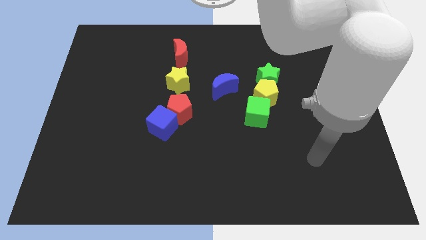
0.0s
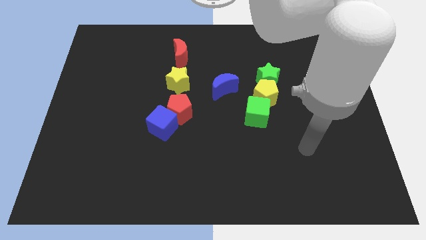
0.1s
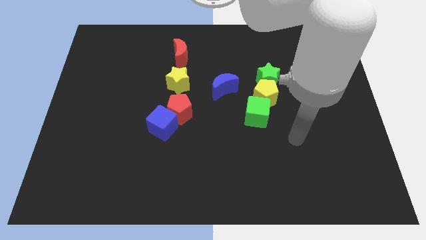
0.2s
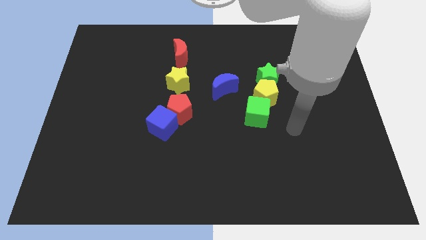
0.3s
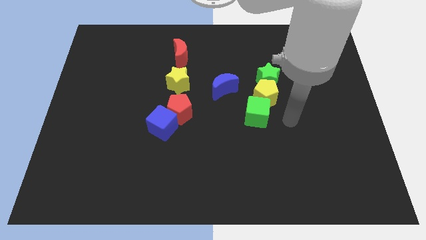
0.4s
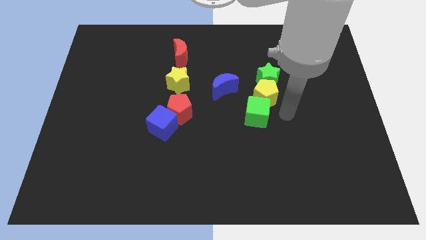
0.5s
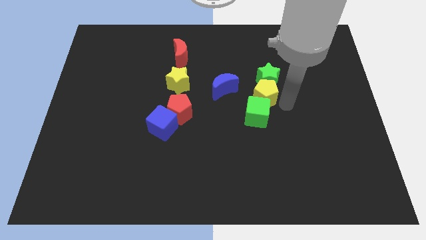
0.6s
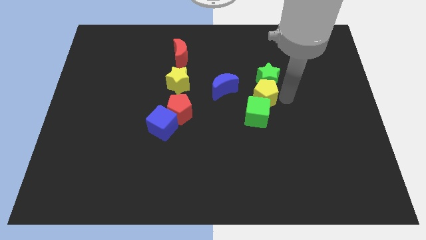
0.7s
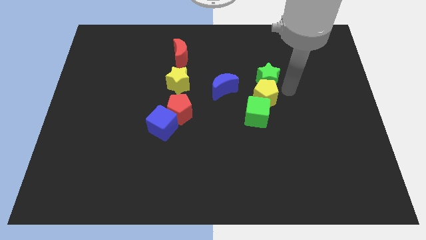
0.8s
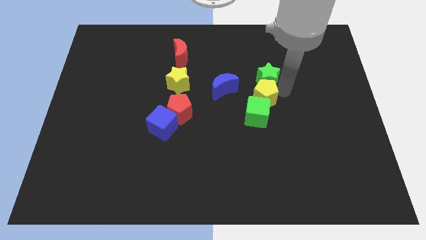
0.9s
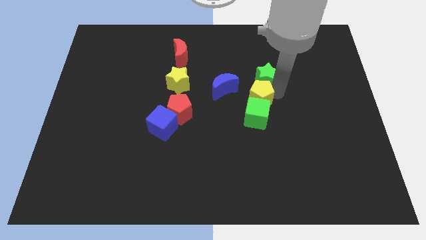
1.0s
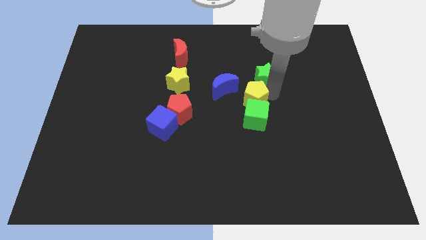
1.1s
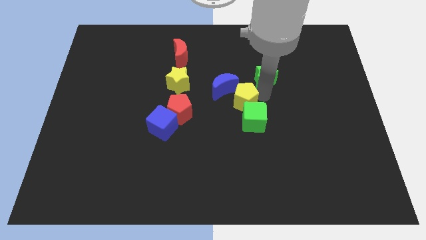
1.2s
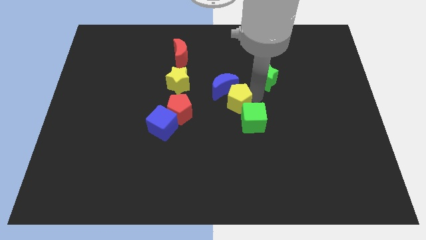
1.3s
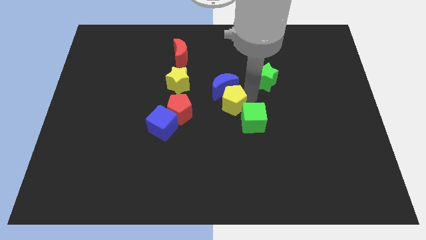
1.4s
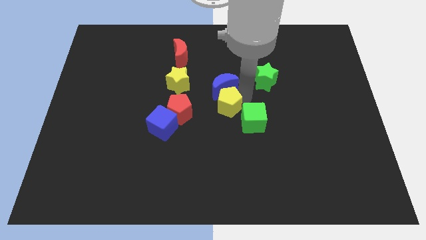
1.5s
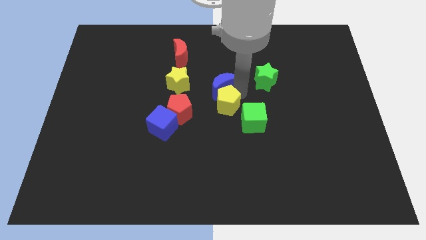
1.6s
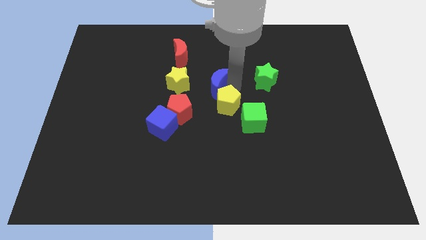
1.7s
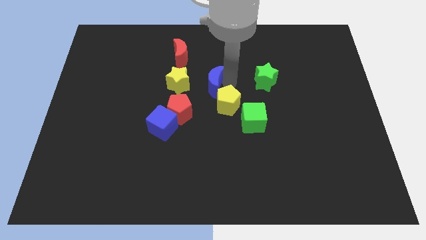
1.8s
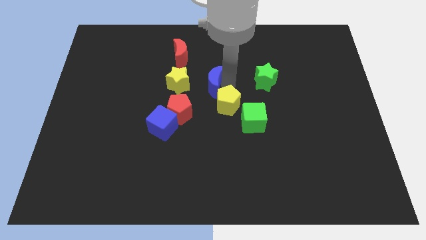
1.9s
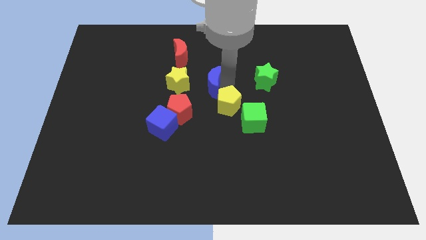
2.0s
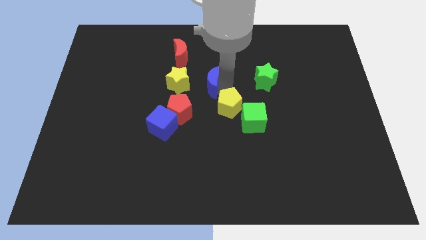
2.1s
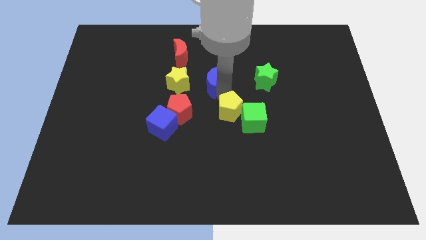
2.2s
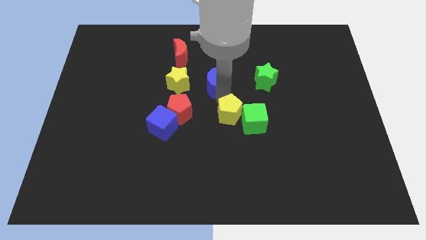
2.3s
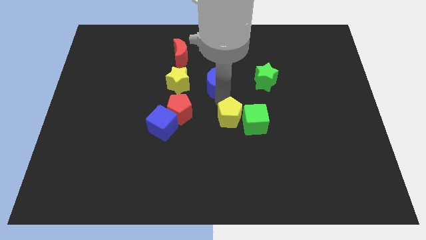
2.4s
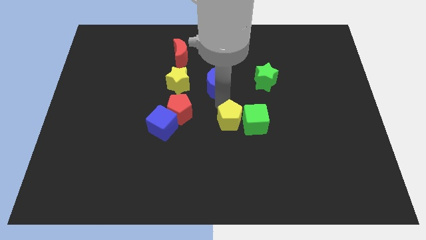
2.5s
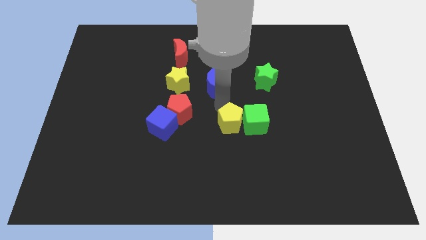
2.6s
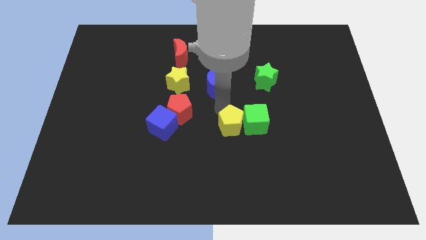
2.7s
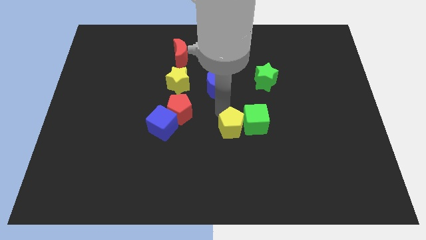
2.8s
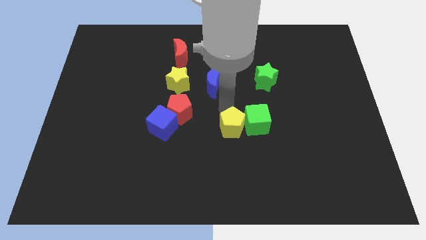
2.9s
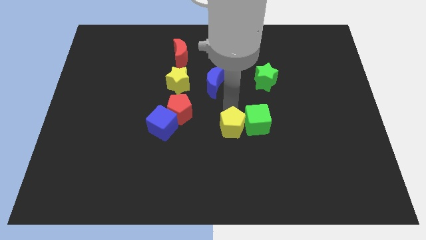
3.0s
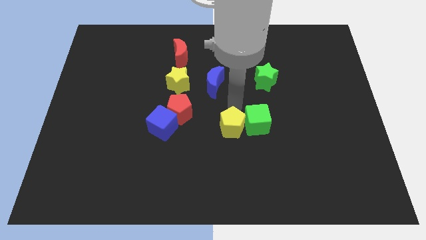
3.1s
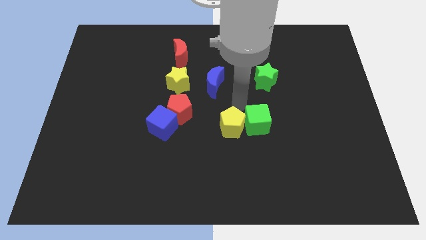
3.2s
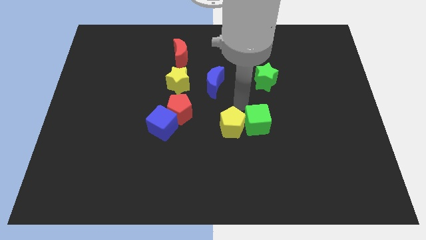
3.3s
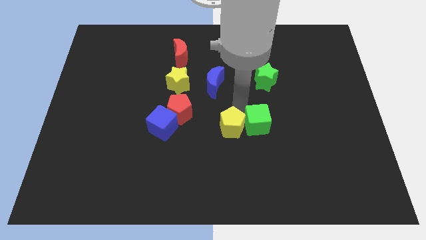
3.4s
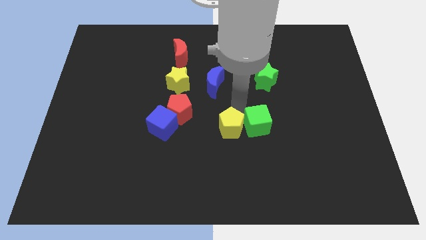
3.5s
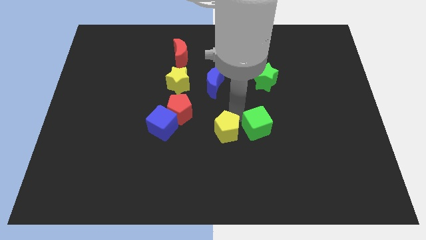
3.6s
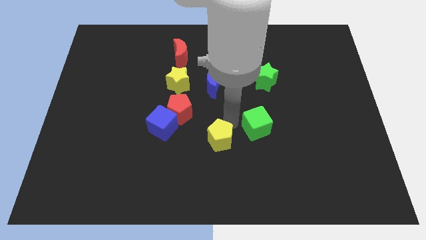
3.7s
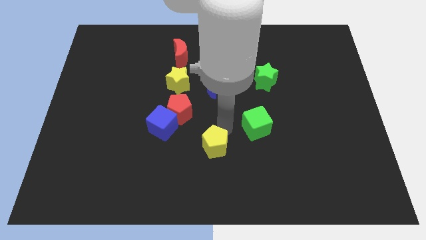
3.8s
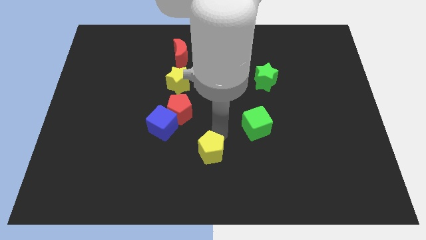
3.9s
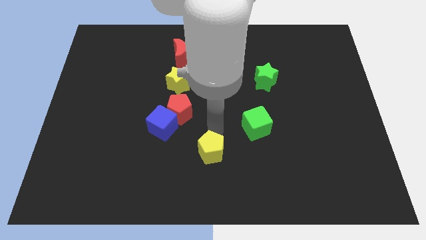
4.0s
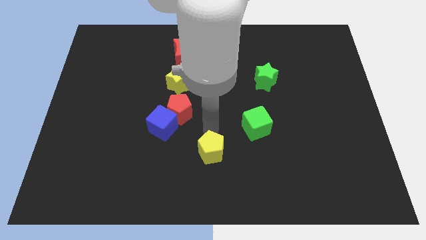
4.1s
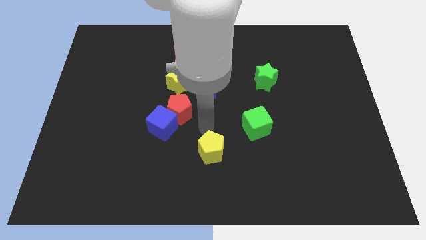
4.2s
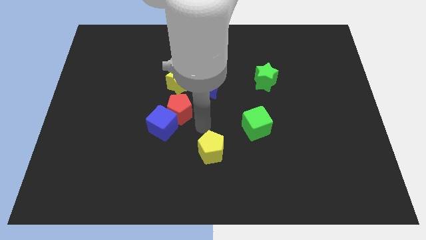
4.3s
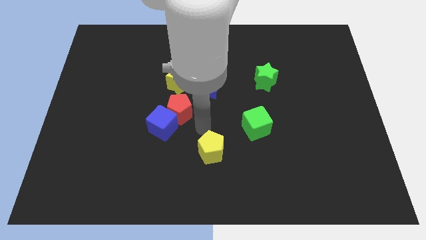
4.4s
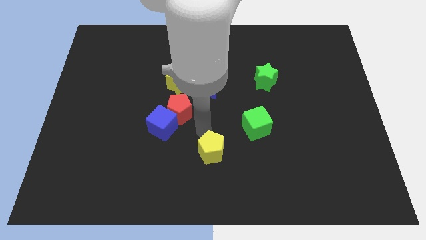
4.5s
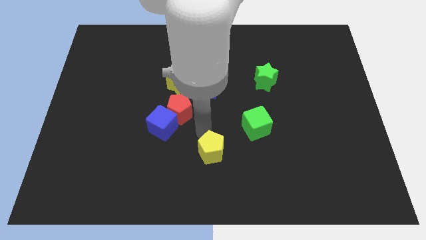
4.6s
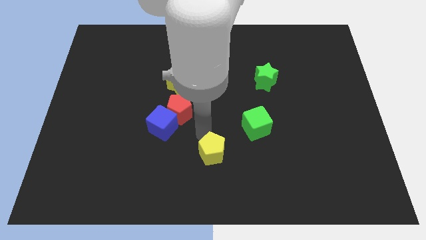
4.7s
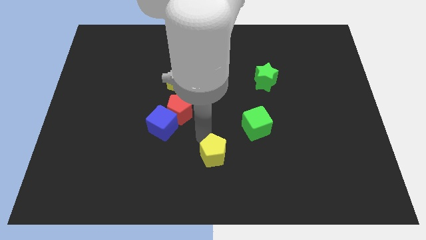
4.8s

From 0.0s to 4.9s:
put the yellow pentagon to the bottom
